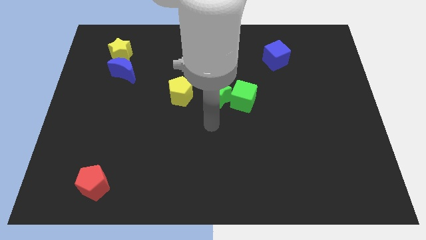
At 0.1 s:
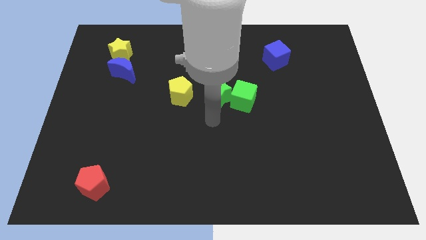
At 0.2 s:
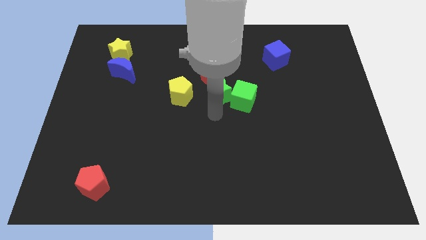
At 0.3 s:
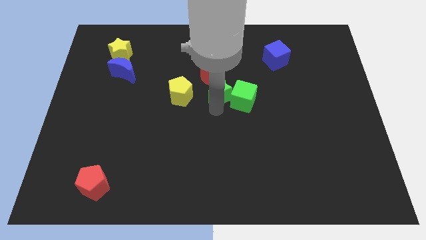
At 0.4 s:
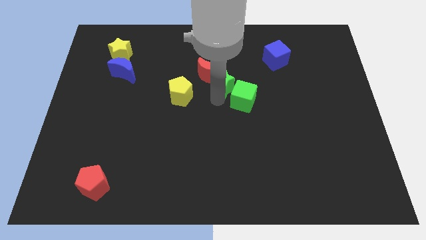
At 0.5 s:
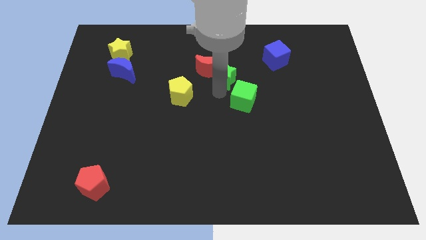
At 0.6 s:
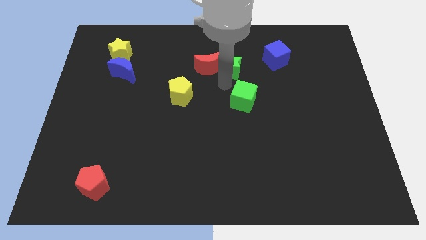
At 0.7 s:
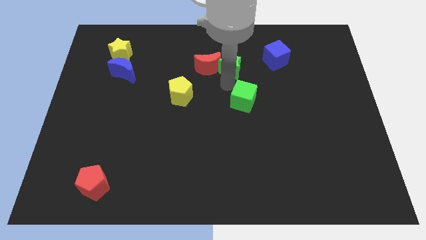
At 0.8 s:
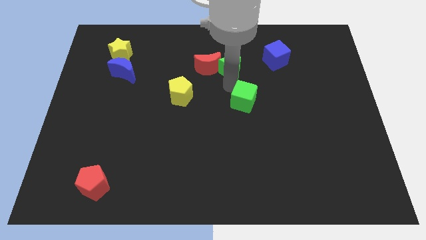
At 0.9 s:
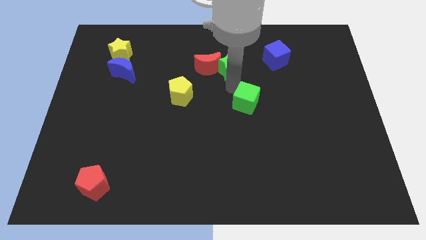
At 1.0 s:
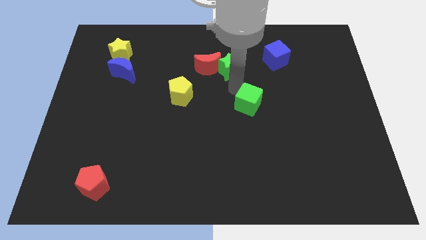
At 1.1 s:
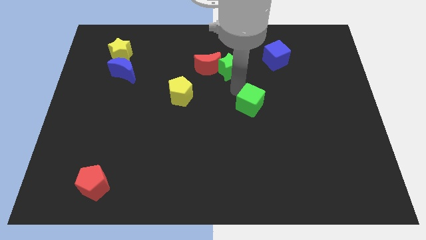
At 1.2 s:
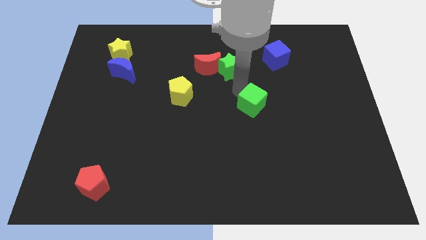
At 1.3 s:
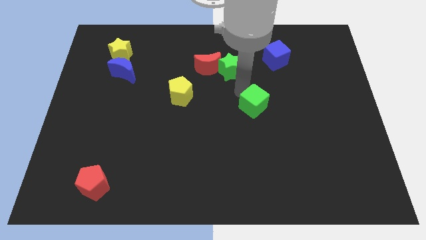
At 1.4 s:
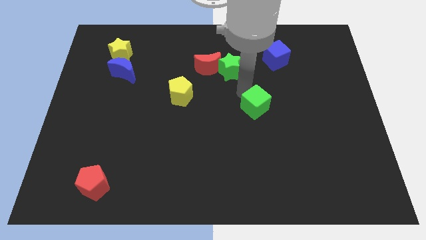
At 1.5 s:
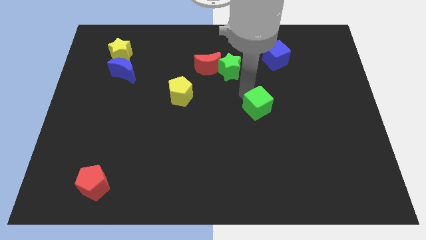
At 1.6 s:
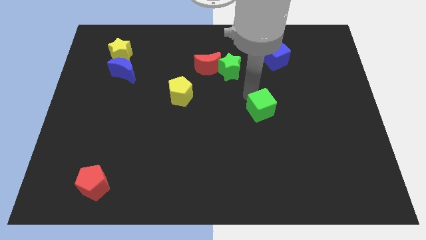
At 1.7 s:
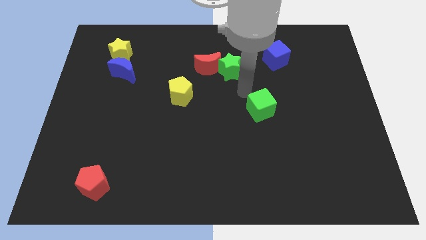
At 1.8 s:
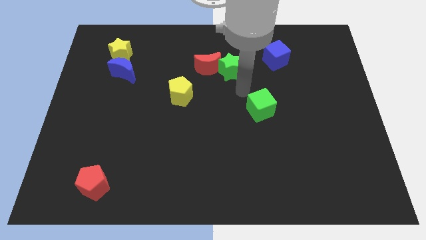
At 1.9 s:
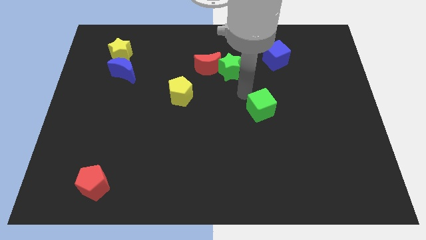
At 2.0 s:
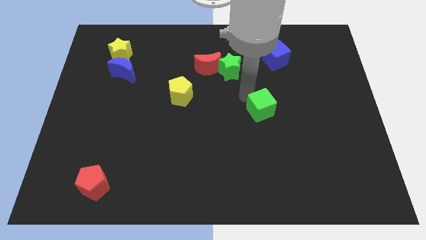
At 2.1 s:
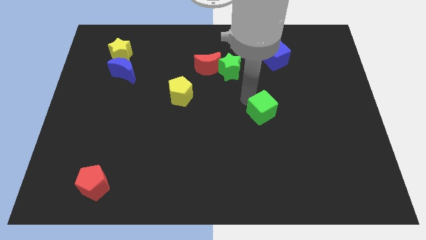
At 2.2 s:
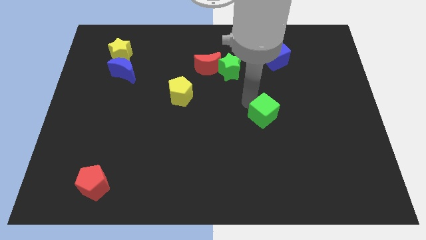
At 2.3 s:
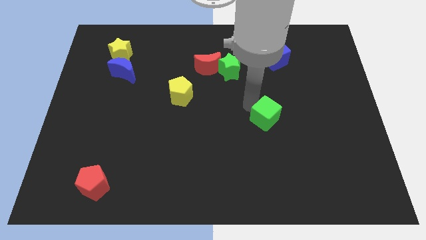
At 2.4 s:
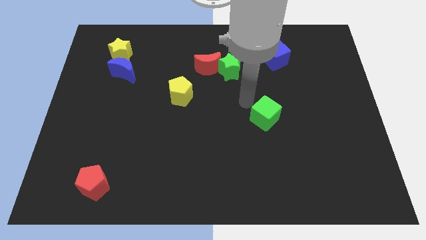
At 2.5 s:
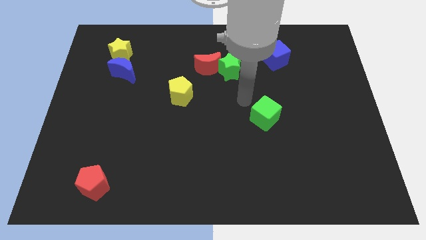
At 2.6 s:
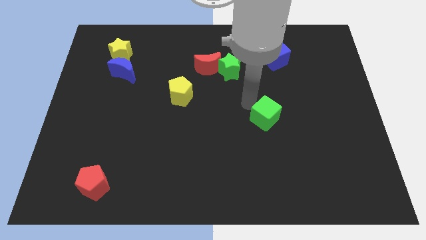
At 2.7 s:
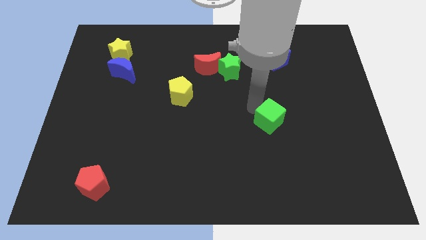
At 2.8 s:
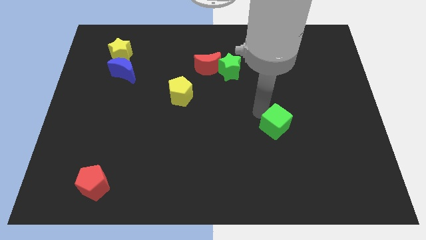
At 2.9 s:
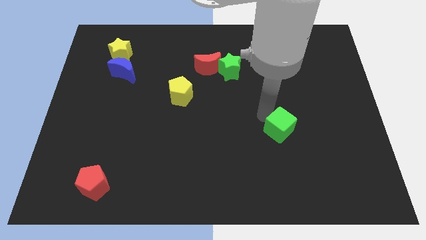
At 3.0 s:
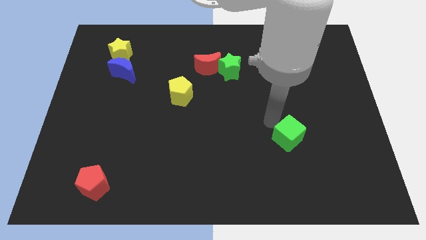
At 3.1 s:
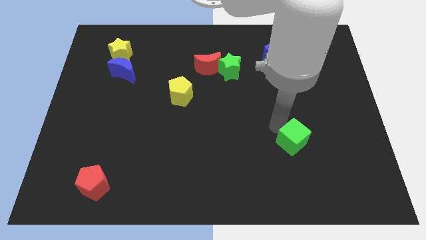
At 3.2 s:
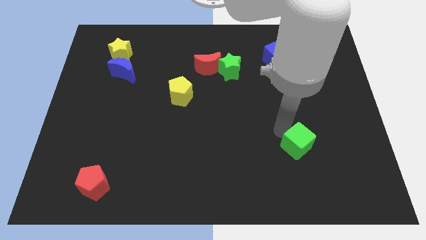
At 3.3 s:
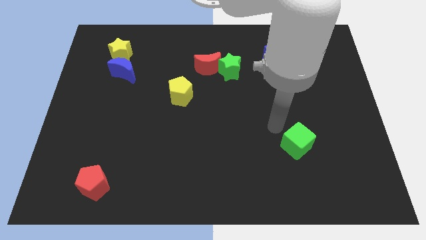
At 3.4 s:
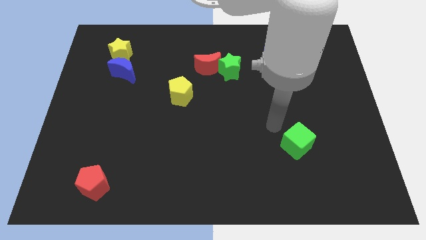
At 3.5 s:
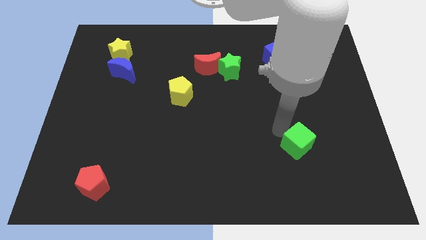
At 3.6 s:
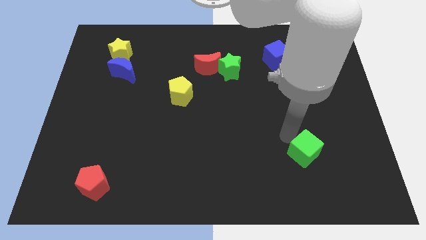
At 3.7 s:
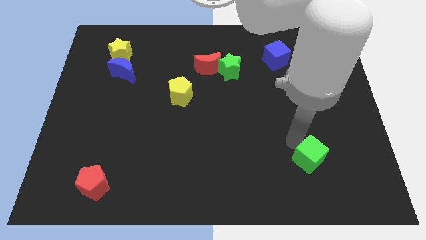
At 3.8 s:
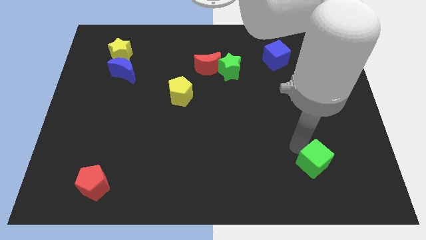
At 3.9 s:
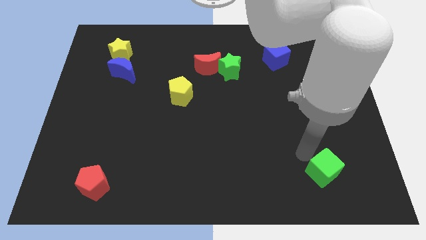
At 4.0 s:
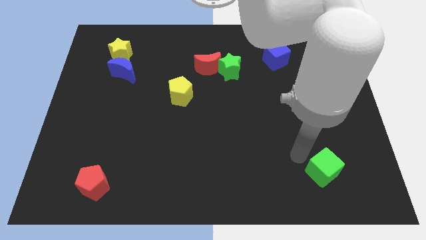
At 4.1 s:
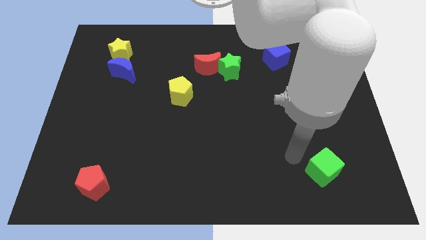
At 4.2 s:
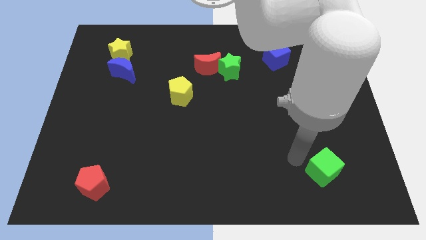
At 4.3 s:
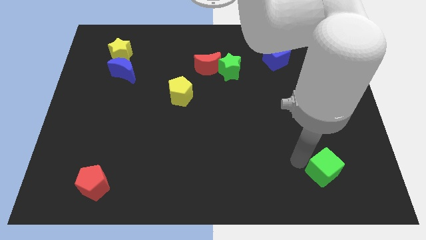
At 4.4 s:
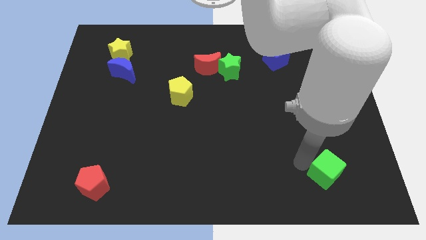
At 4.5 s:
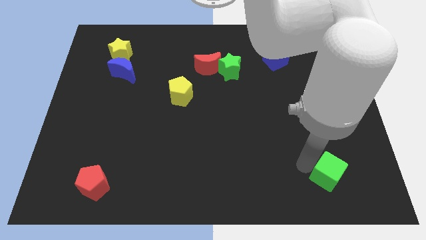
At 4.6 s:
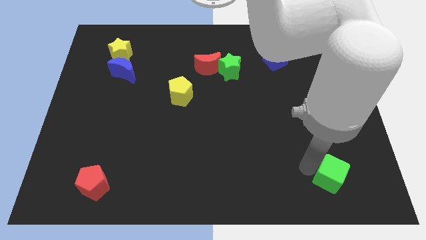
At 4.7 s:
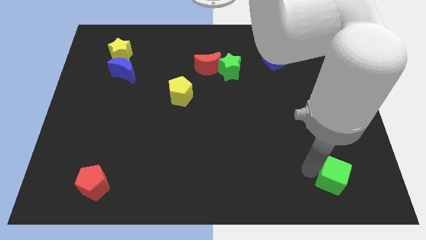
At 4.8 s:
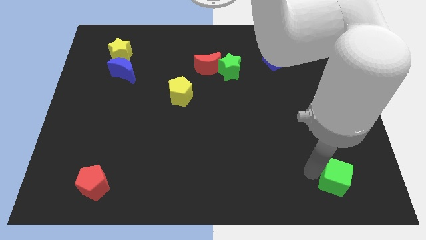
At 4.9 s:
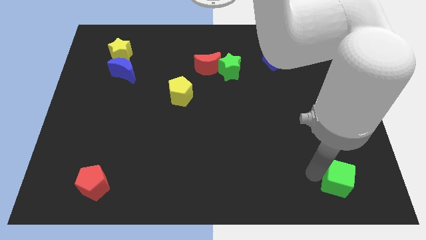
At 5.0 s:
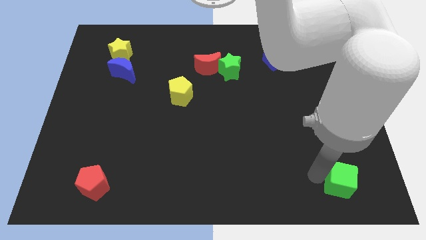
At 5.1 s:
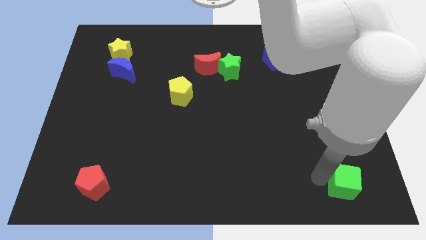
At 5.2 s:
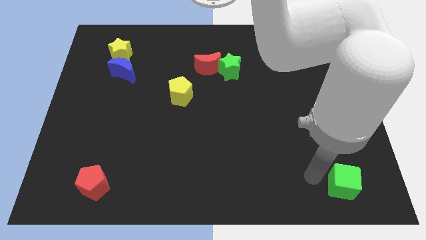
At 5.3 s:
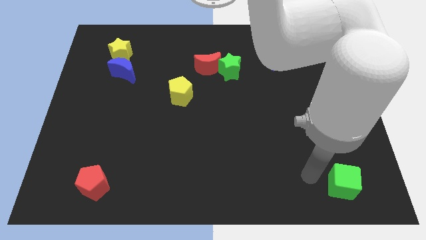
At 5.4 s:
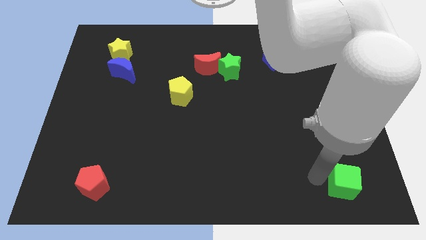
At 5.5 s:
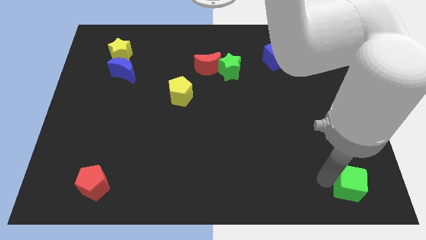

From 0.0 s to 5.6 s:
slide the green cube to the bottom right
